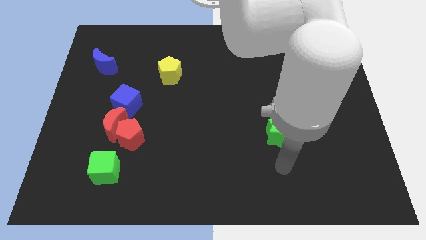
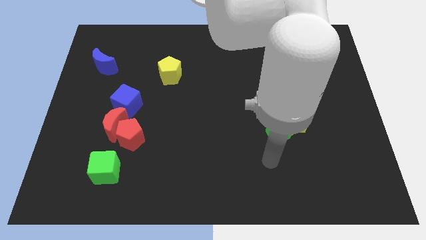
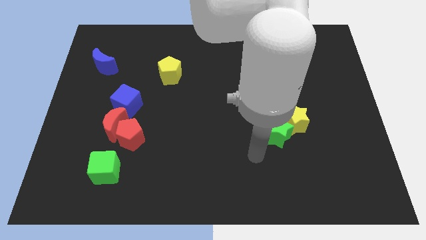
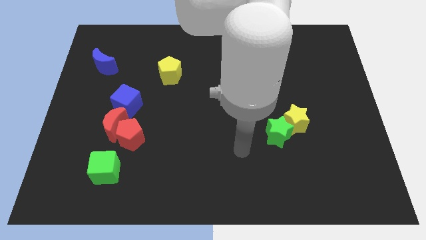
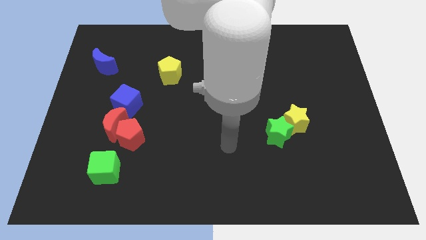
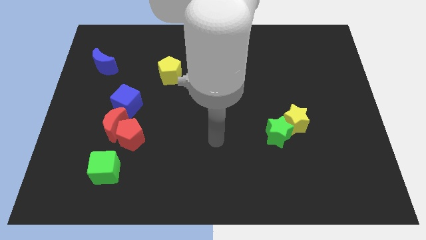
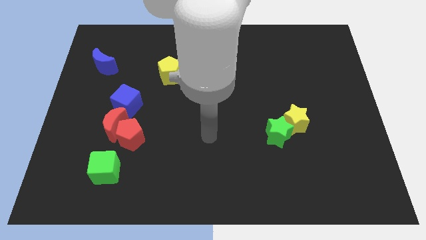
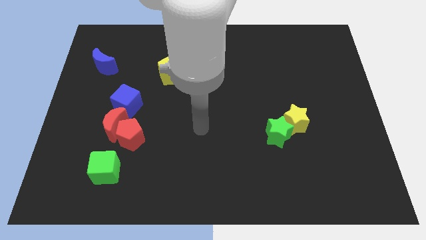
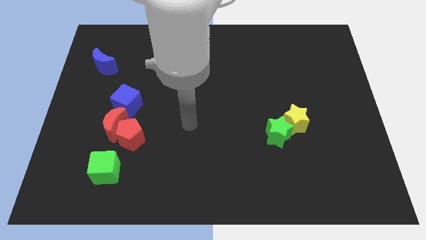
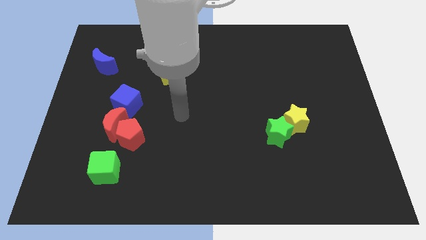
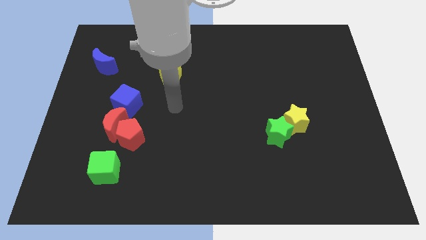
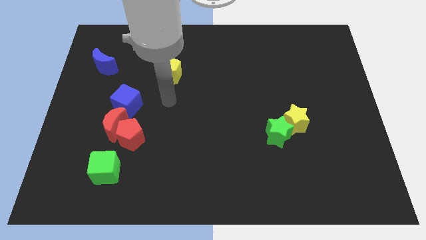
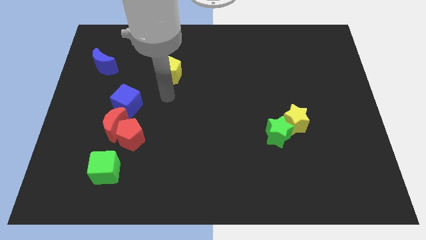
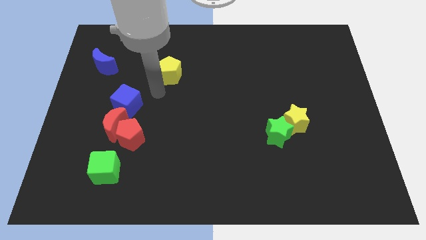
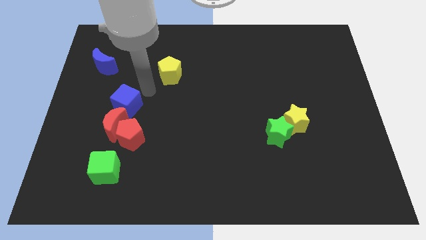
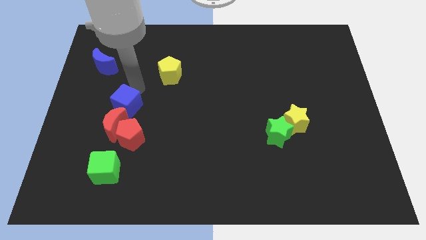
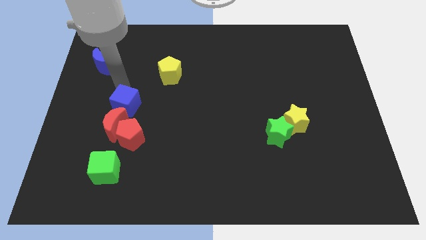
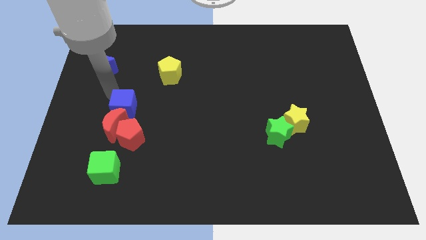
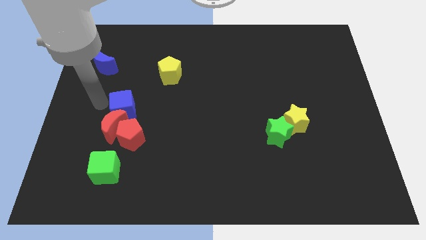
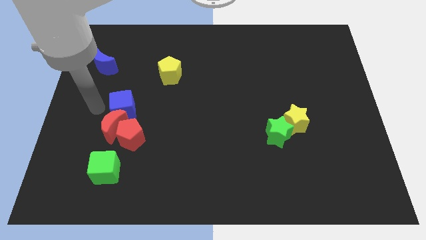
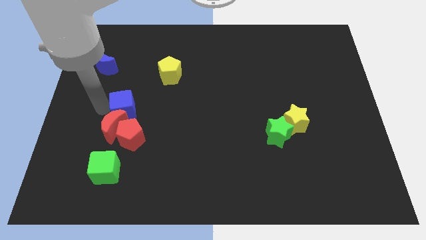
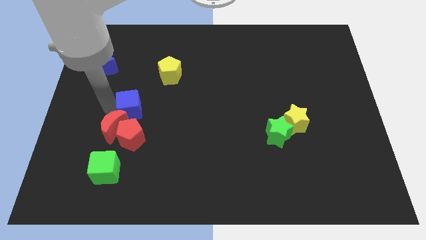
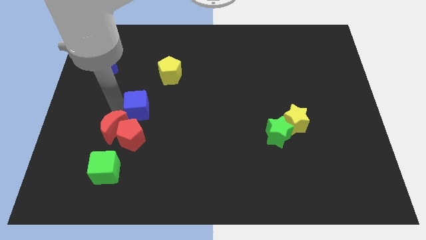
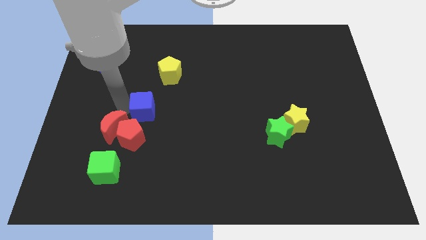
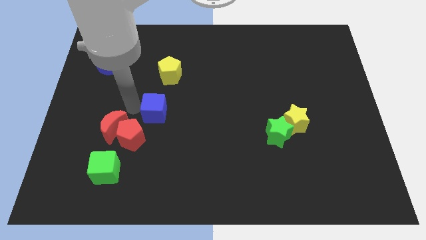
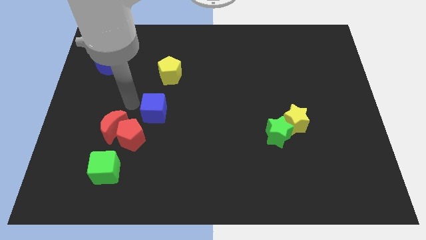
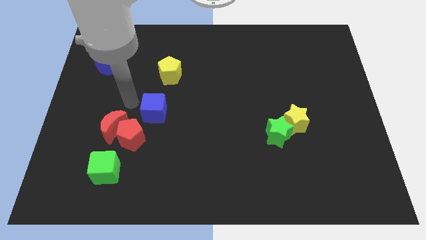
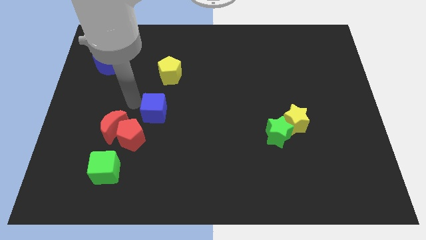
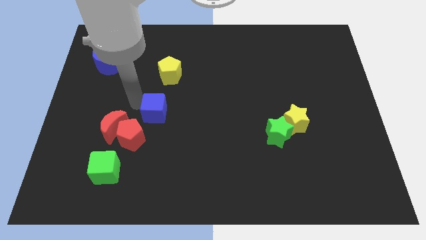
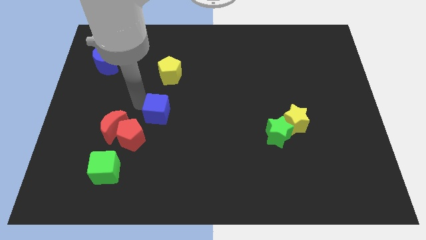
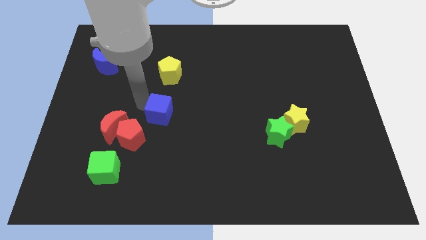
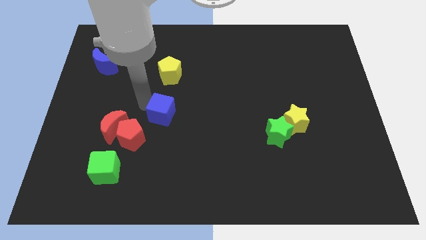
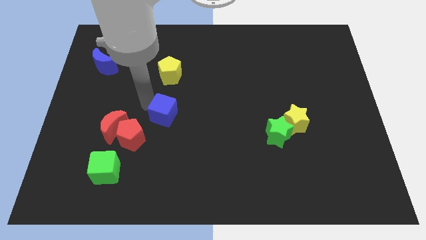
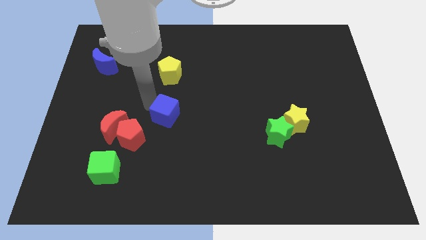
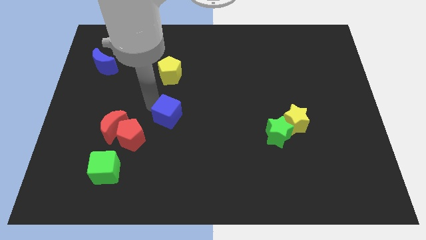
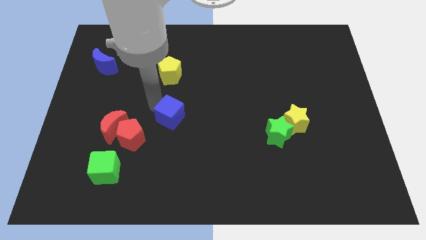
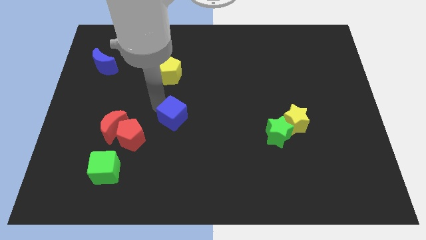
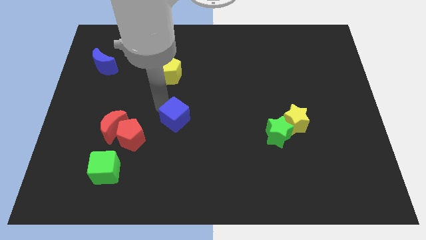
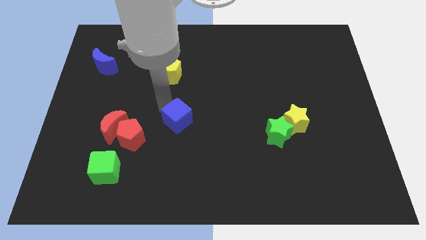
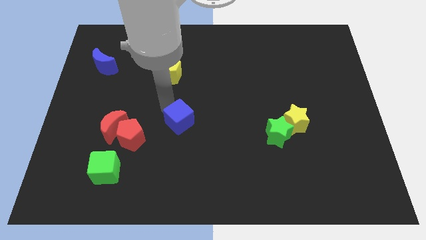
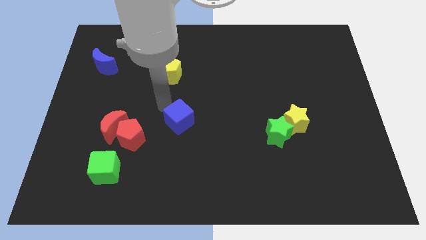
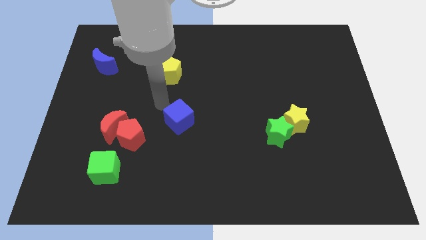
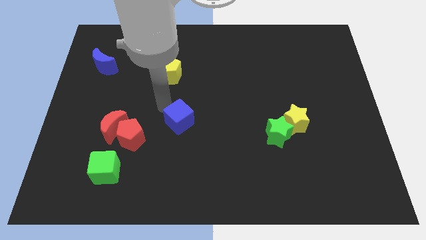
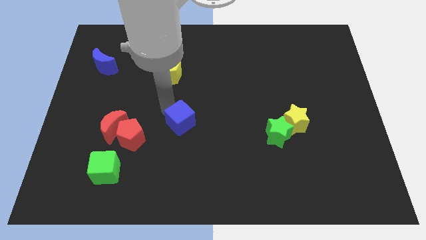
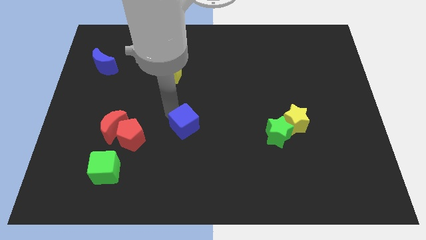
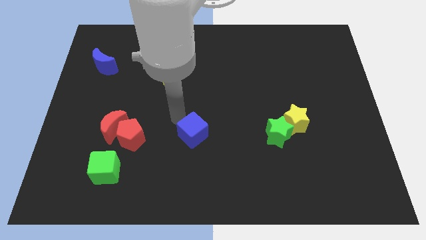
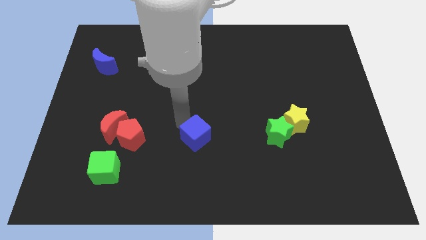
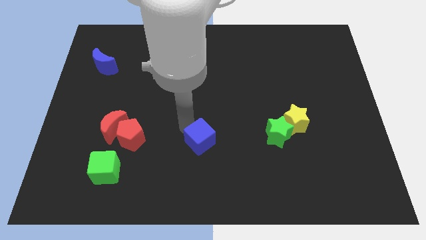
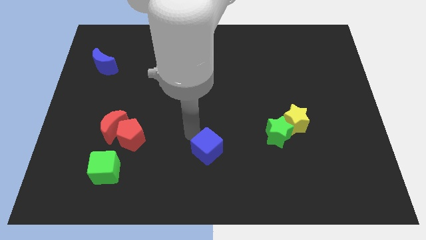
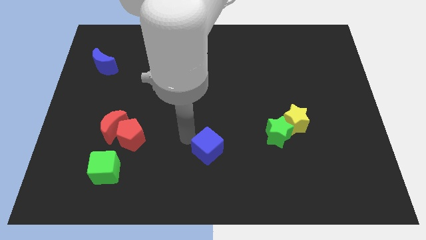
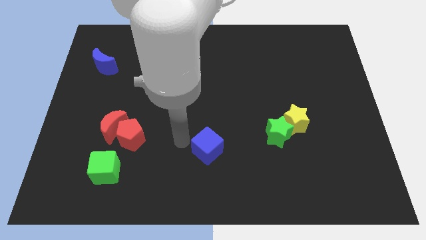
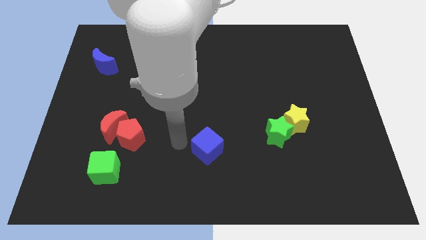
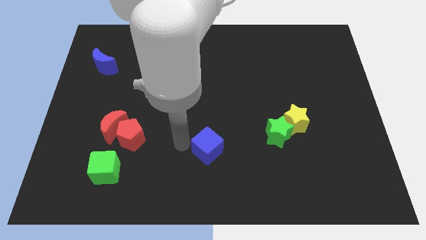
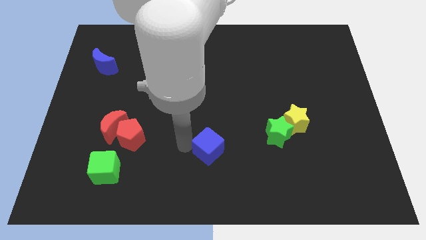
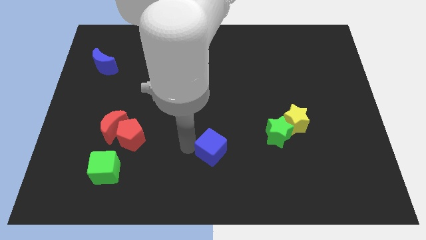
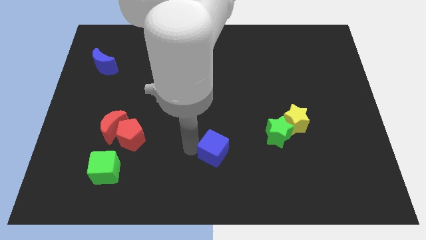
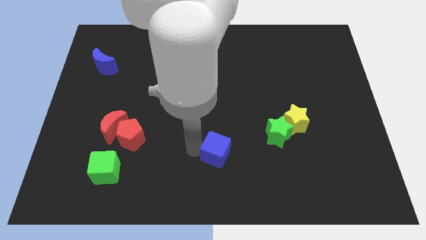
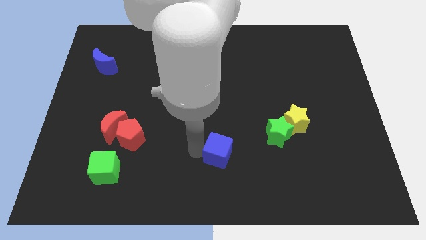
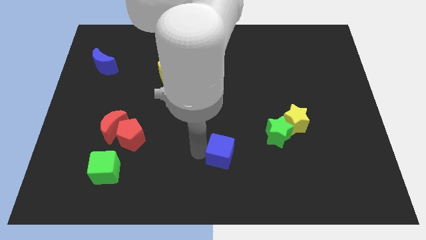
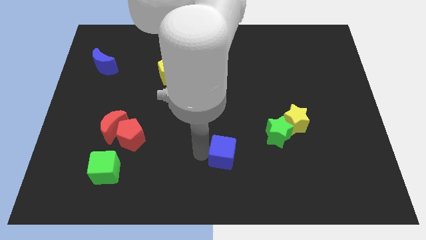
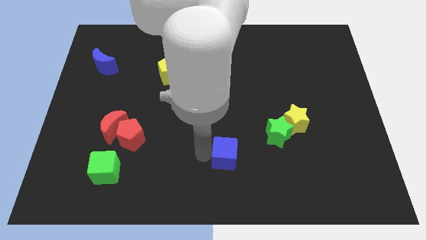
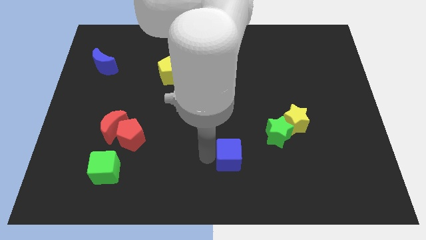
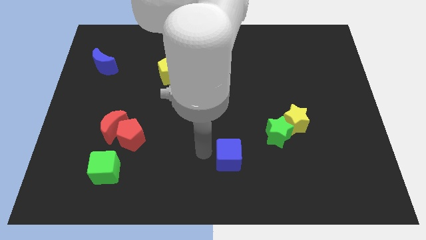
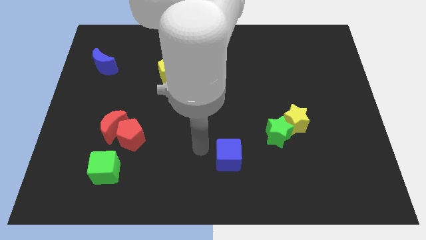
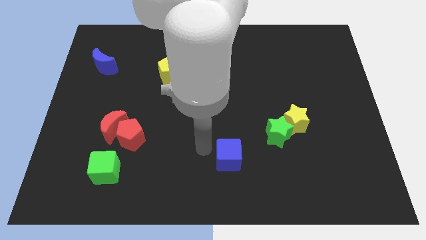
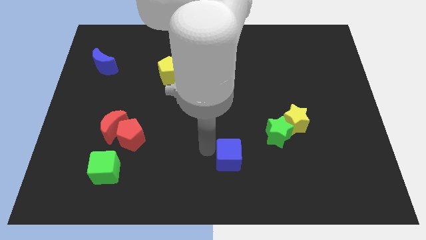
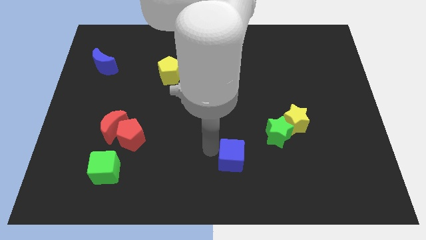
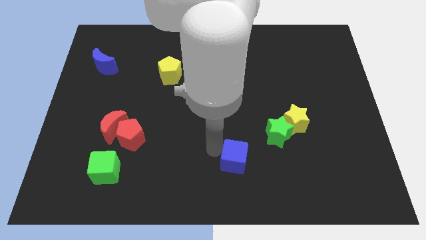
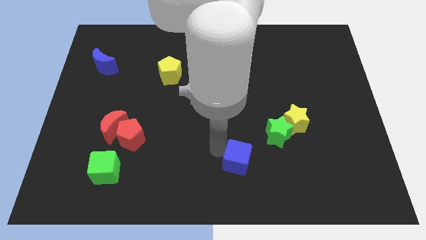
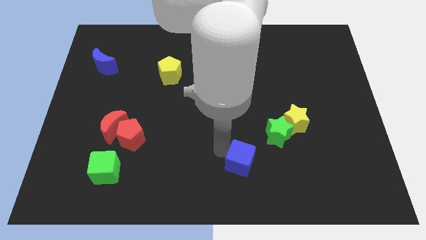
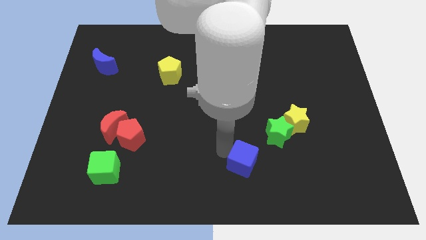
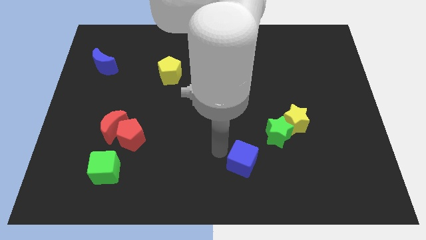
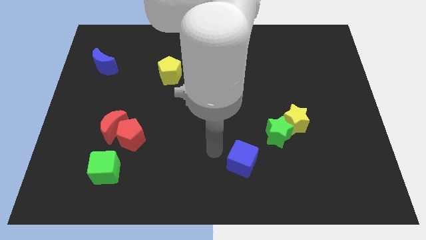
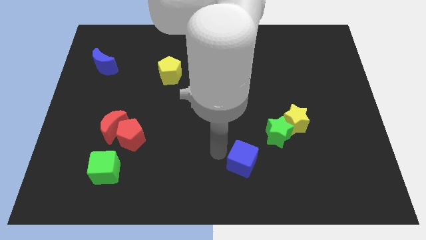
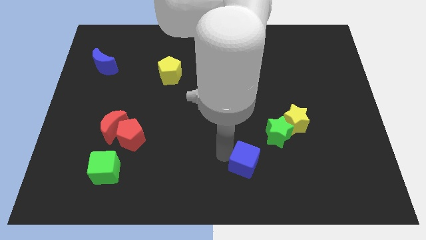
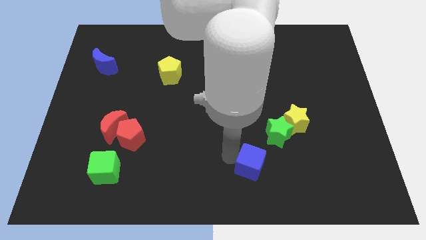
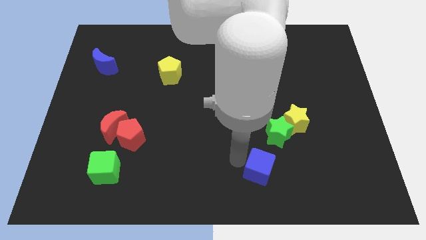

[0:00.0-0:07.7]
slide the blue cube to the bottom side of the green star
